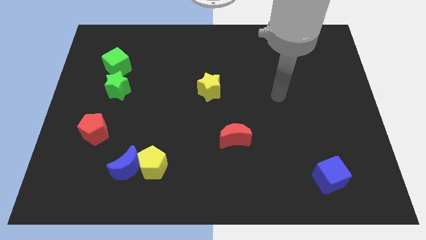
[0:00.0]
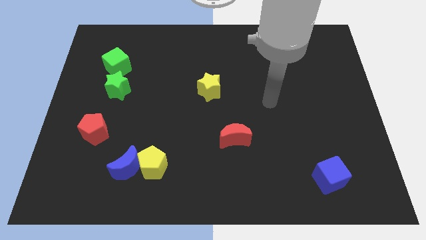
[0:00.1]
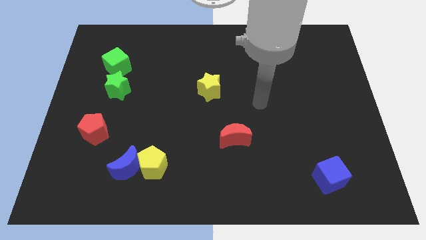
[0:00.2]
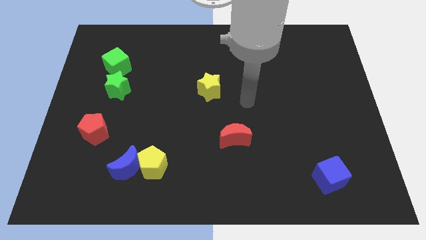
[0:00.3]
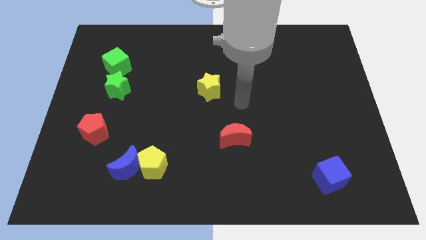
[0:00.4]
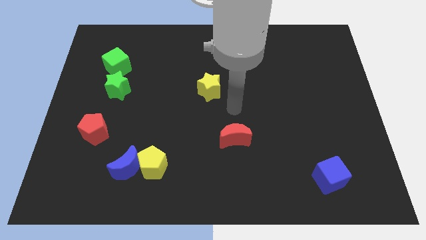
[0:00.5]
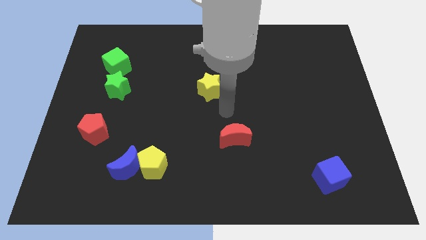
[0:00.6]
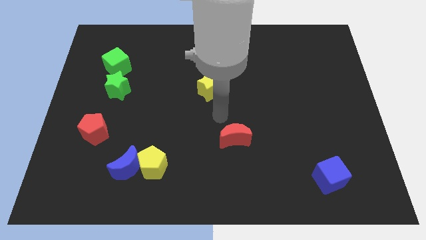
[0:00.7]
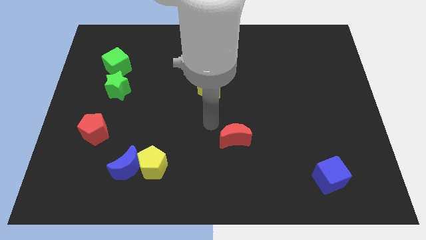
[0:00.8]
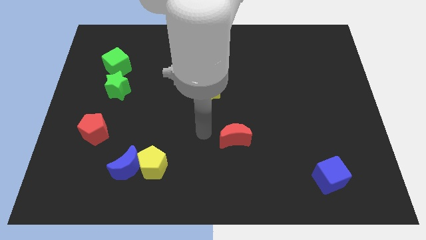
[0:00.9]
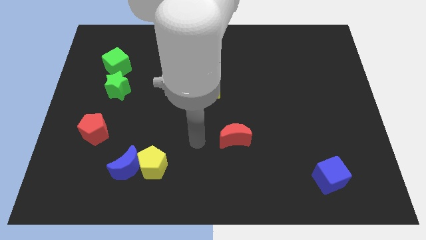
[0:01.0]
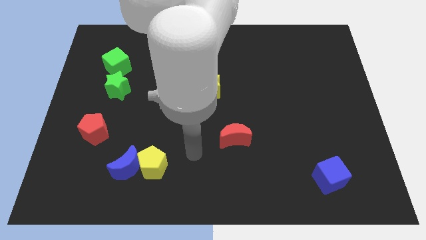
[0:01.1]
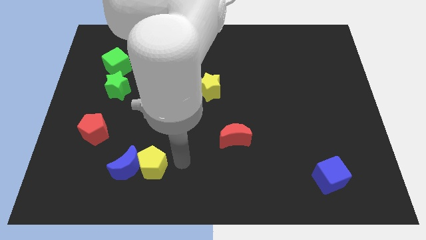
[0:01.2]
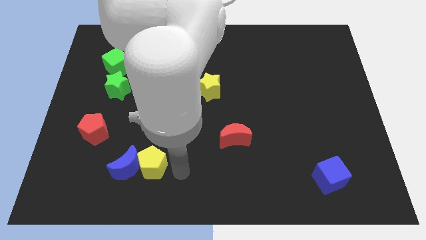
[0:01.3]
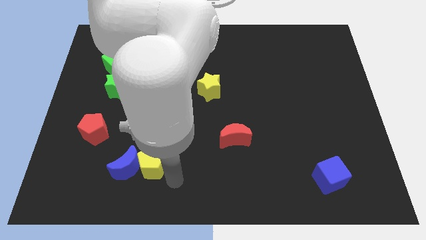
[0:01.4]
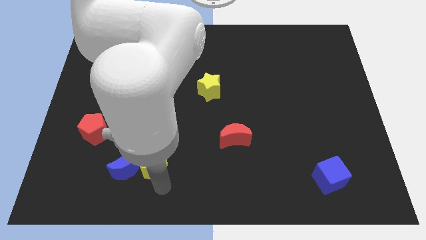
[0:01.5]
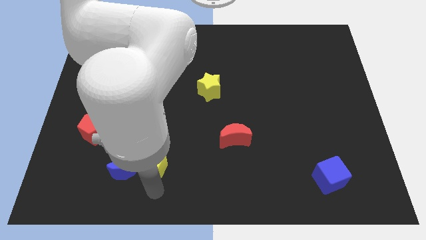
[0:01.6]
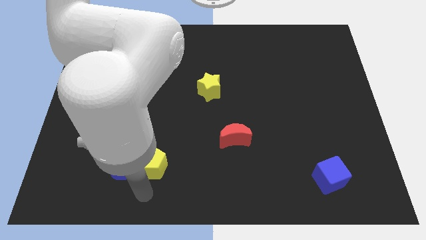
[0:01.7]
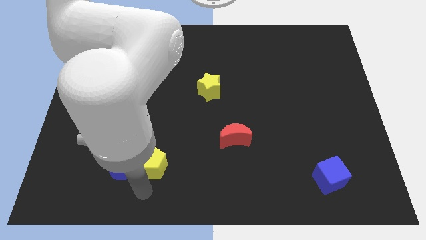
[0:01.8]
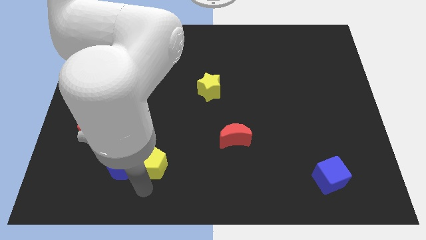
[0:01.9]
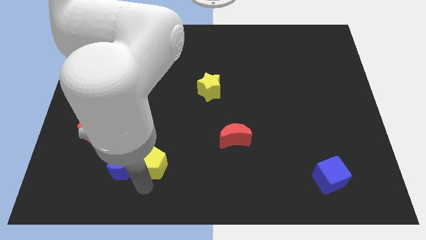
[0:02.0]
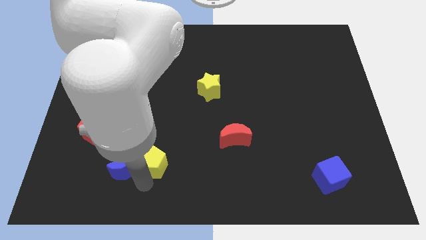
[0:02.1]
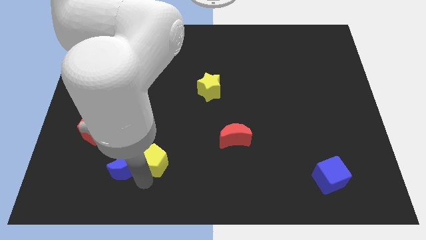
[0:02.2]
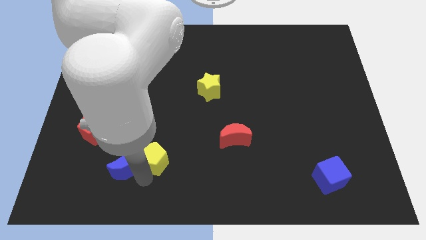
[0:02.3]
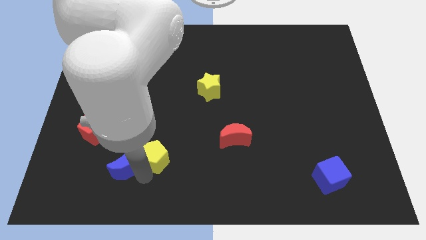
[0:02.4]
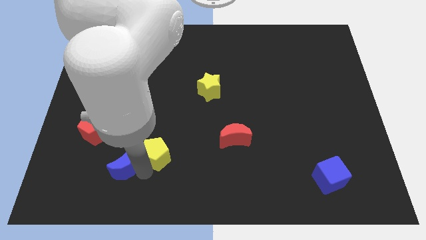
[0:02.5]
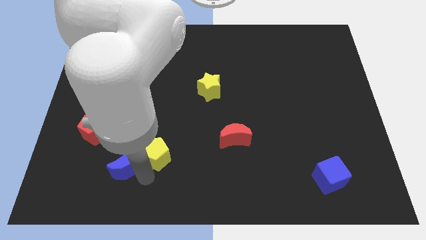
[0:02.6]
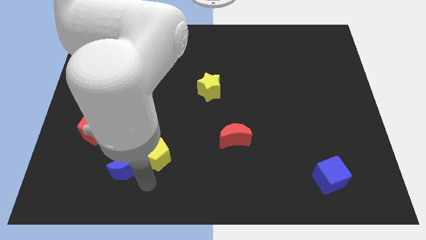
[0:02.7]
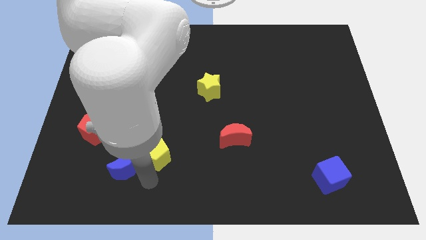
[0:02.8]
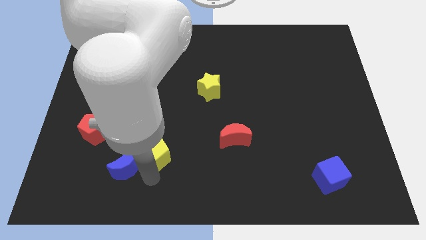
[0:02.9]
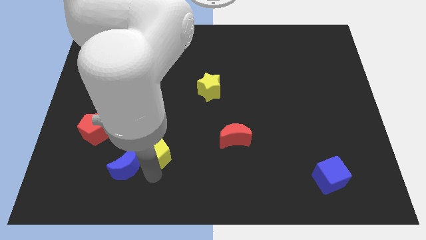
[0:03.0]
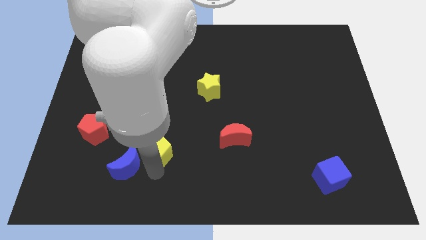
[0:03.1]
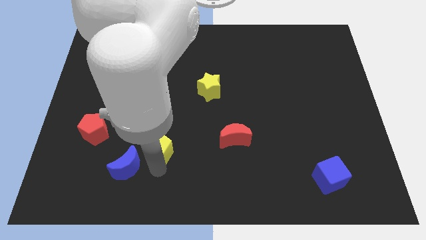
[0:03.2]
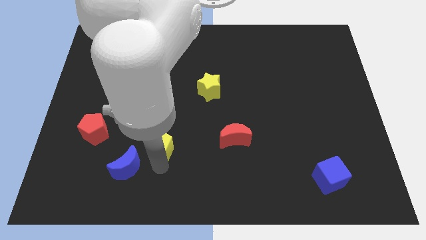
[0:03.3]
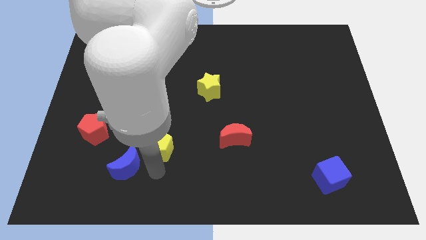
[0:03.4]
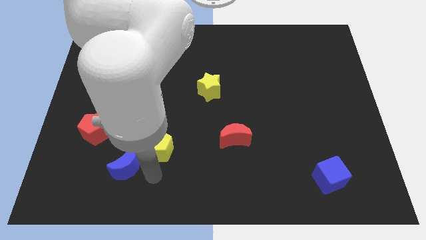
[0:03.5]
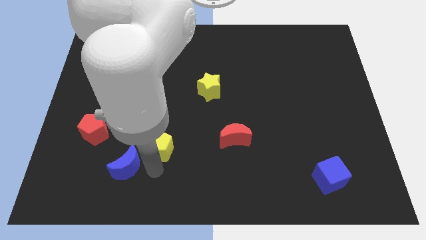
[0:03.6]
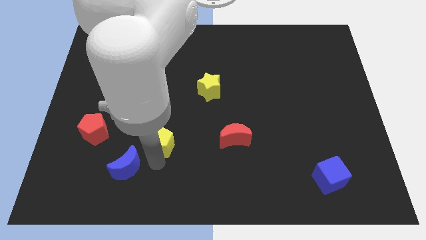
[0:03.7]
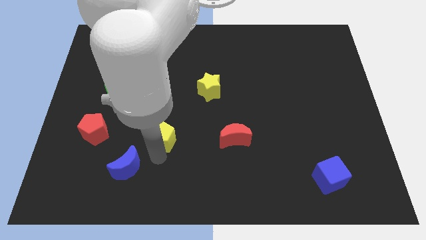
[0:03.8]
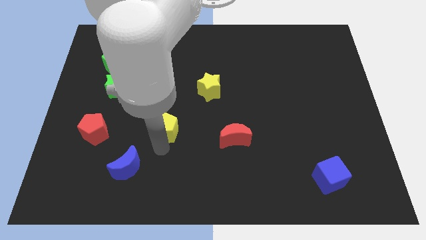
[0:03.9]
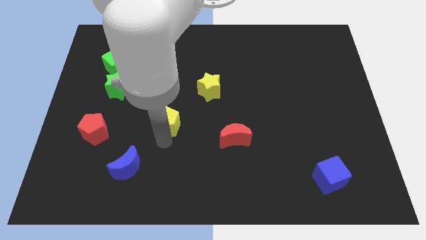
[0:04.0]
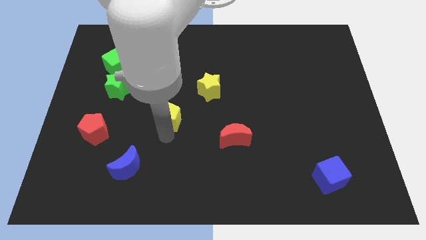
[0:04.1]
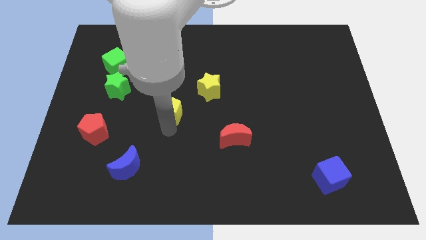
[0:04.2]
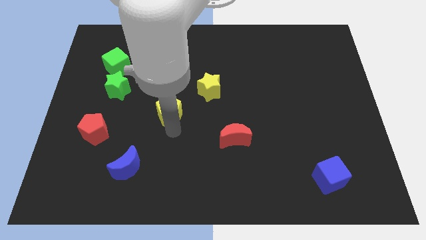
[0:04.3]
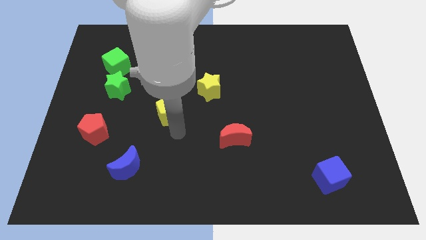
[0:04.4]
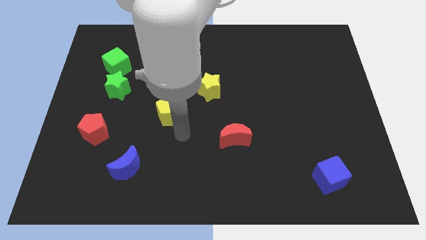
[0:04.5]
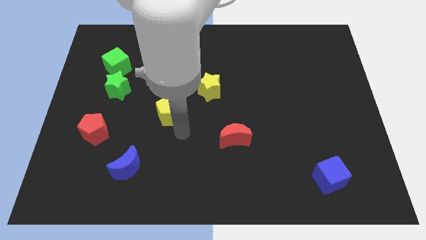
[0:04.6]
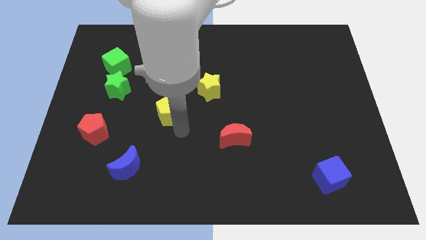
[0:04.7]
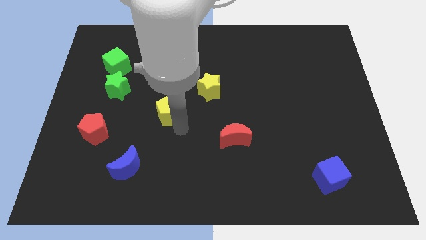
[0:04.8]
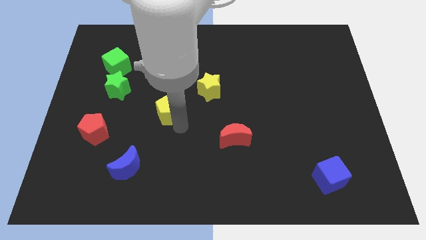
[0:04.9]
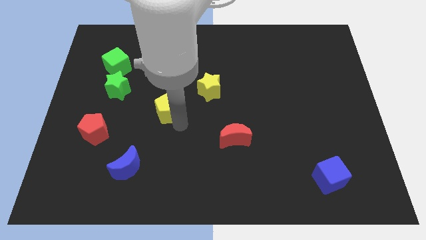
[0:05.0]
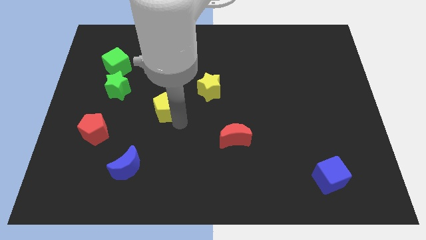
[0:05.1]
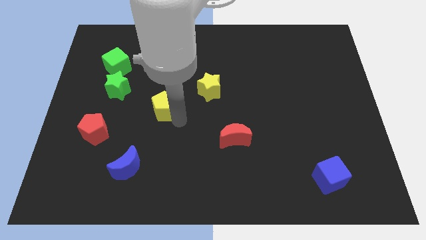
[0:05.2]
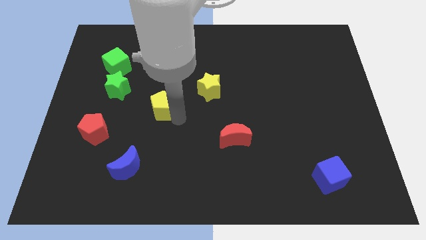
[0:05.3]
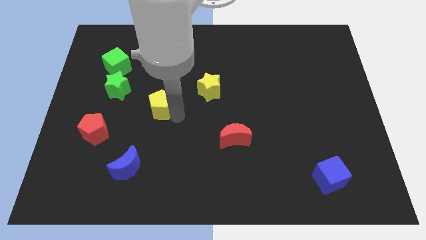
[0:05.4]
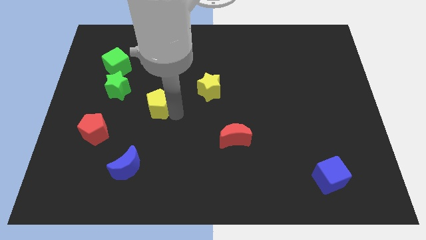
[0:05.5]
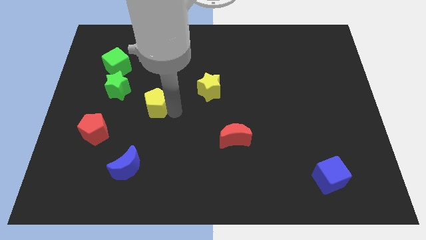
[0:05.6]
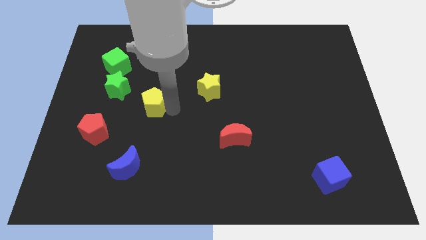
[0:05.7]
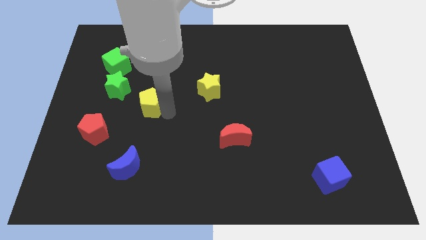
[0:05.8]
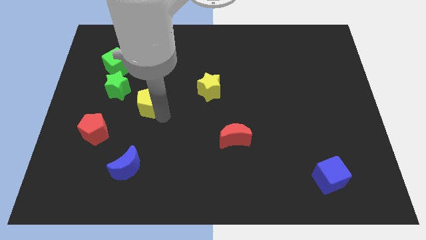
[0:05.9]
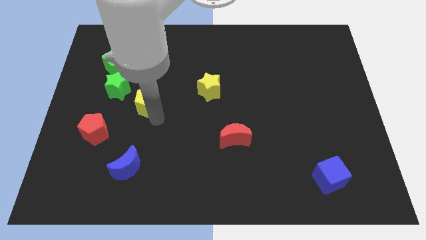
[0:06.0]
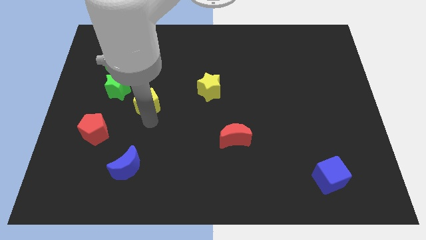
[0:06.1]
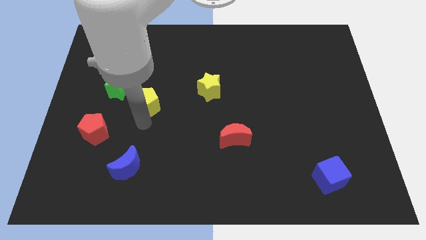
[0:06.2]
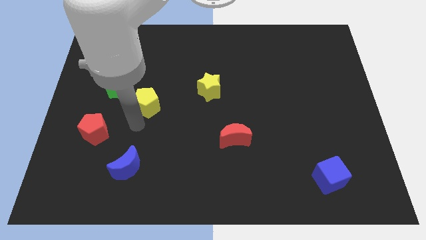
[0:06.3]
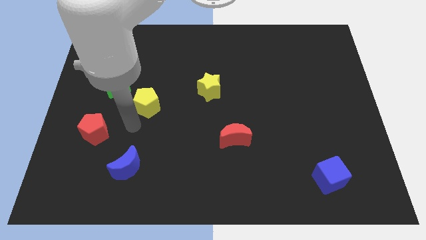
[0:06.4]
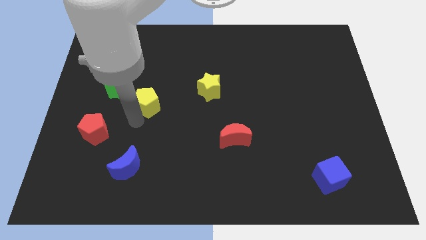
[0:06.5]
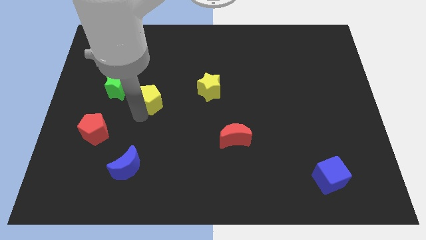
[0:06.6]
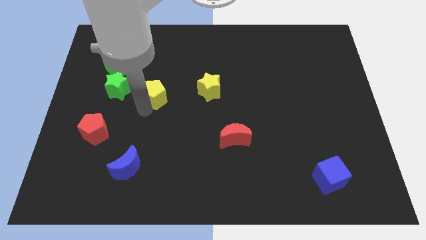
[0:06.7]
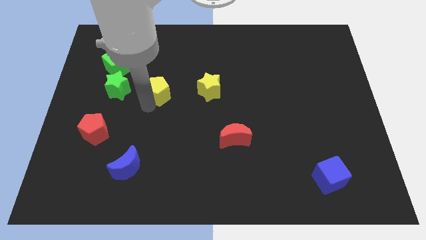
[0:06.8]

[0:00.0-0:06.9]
slide the yellow pentagon up

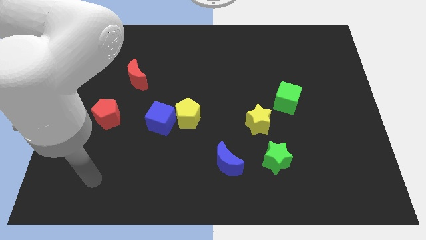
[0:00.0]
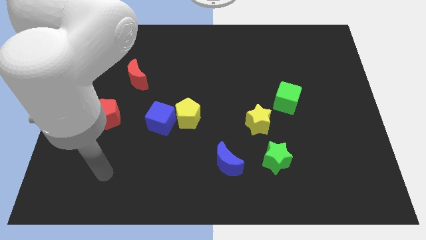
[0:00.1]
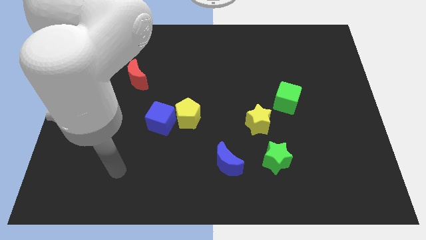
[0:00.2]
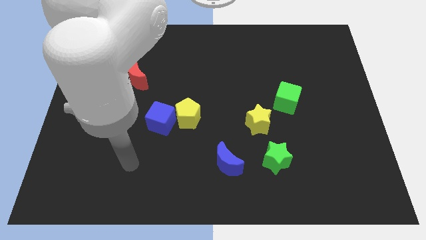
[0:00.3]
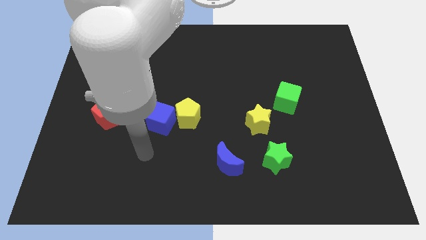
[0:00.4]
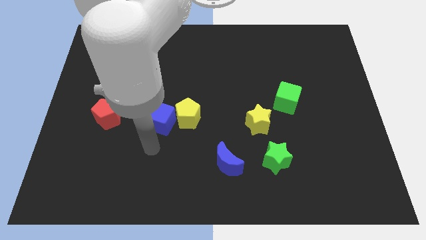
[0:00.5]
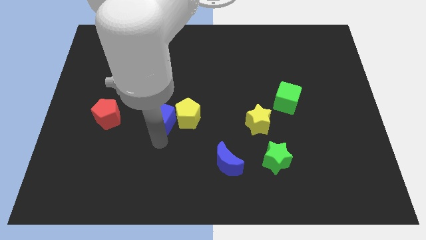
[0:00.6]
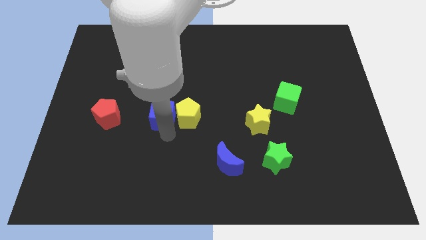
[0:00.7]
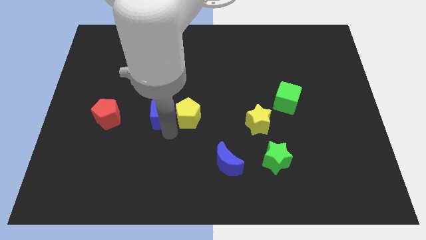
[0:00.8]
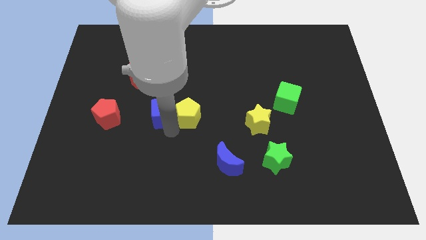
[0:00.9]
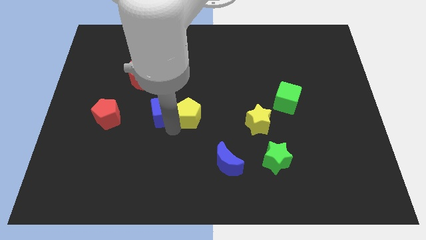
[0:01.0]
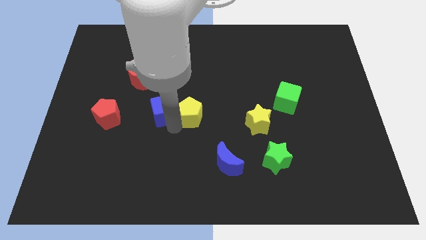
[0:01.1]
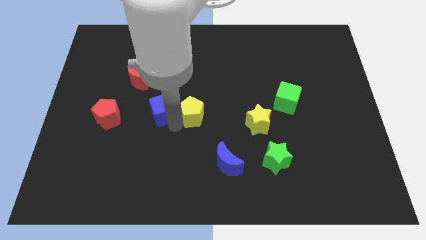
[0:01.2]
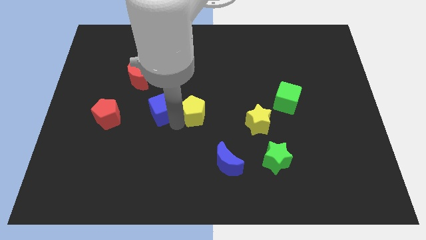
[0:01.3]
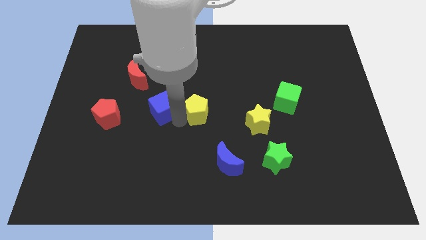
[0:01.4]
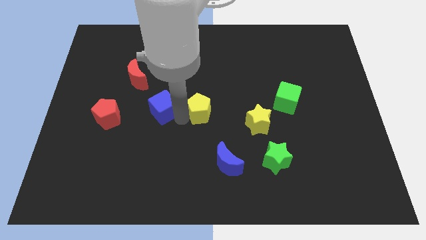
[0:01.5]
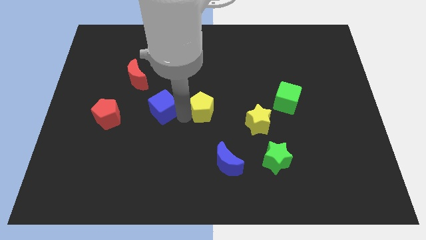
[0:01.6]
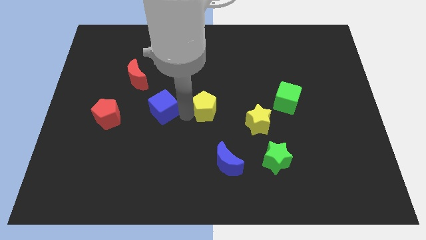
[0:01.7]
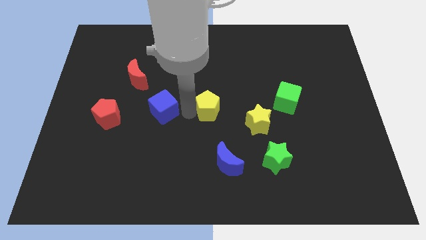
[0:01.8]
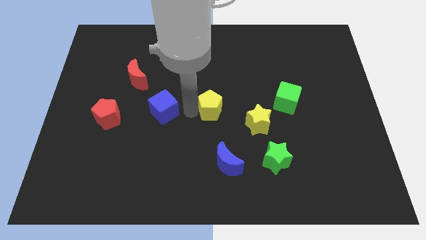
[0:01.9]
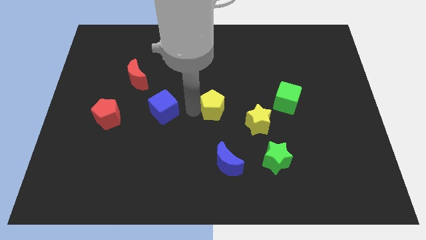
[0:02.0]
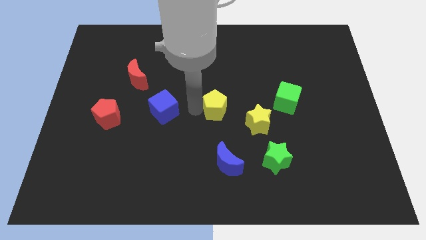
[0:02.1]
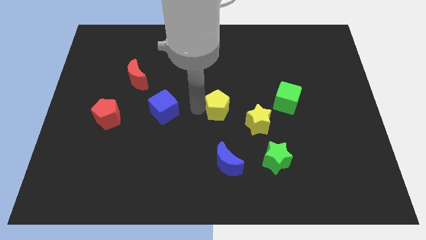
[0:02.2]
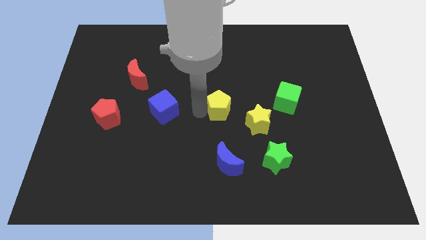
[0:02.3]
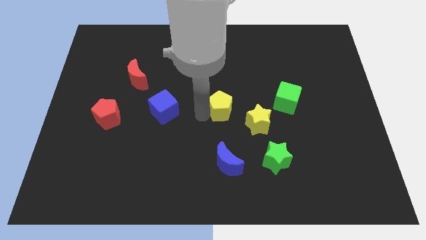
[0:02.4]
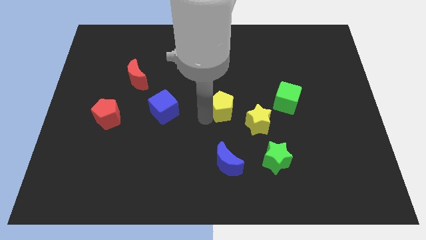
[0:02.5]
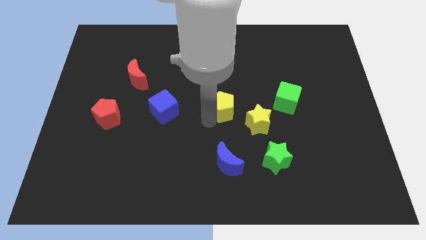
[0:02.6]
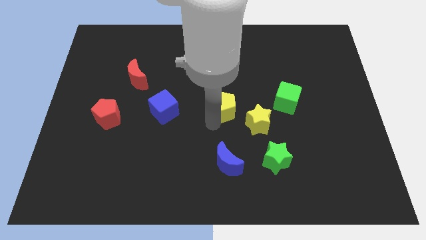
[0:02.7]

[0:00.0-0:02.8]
push the yellow pentagon somewhat upwards and right
